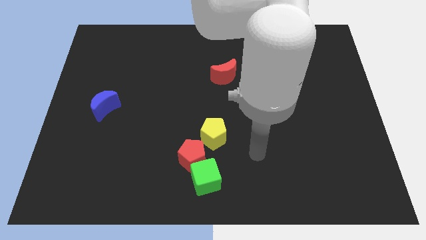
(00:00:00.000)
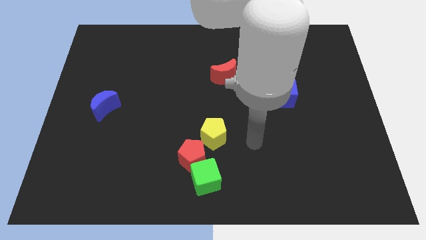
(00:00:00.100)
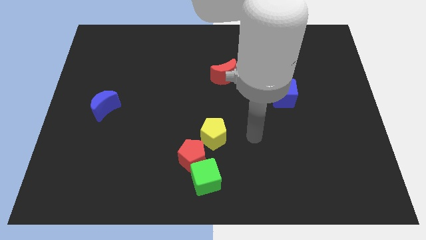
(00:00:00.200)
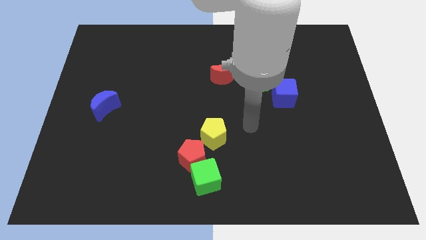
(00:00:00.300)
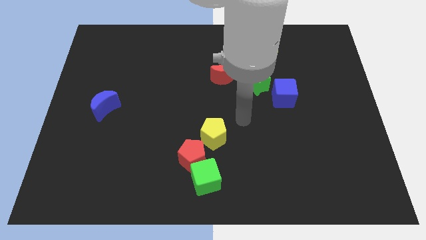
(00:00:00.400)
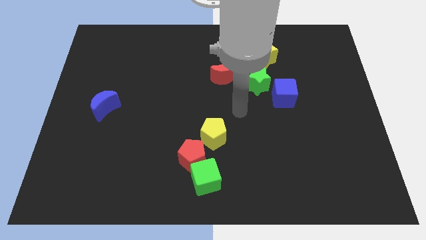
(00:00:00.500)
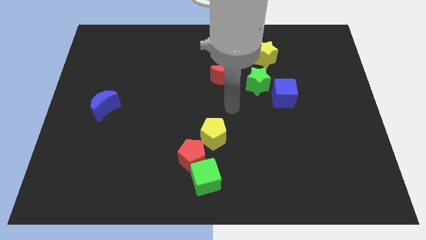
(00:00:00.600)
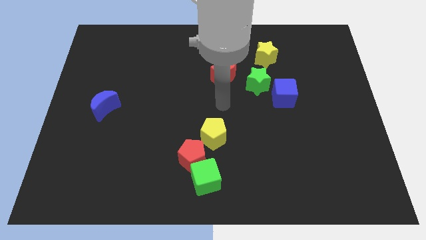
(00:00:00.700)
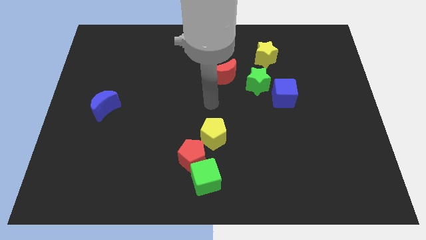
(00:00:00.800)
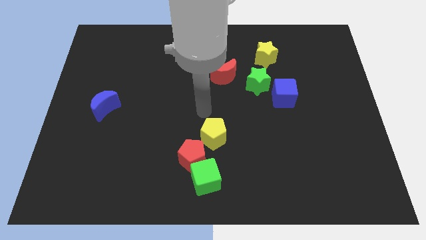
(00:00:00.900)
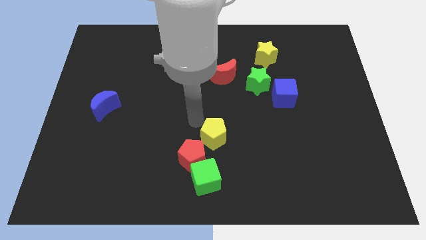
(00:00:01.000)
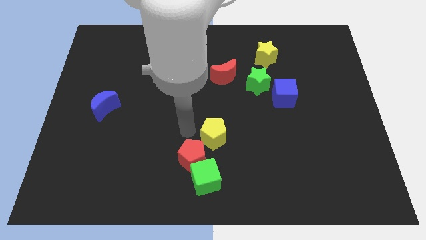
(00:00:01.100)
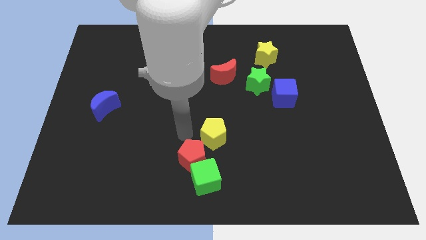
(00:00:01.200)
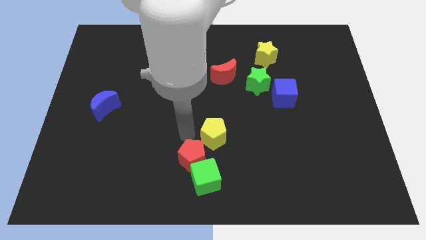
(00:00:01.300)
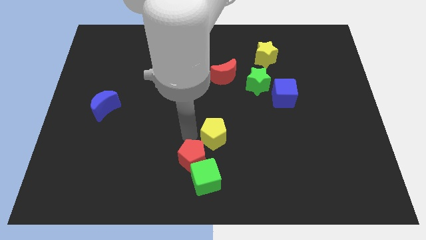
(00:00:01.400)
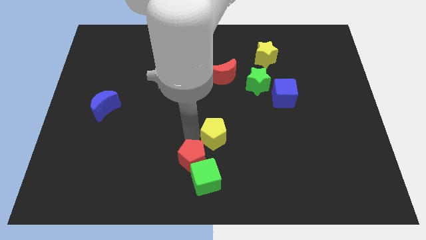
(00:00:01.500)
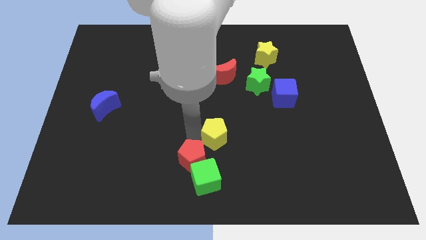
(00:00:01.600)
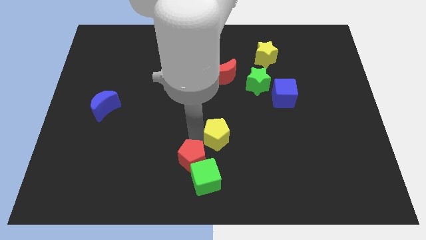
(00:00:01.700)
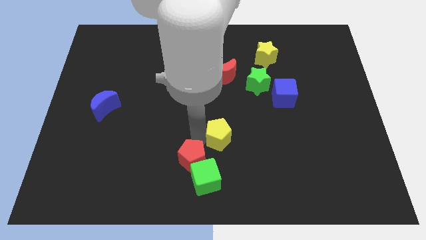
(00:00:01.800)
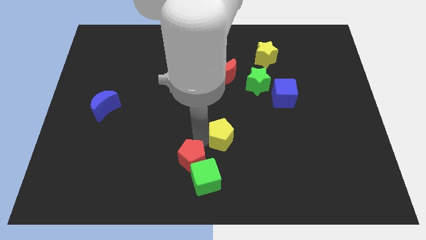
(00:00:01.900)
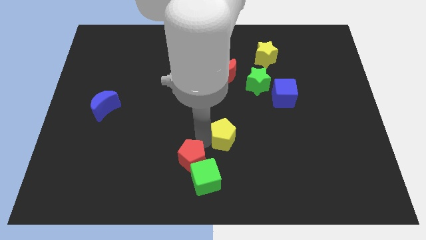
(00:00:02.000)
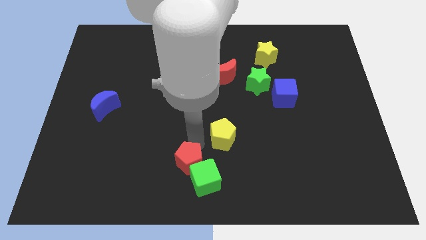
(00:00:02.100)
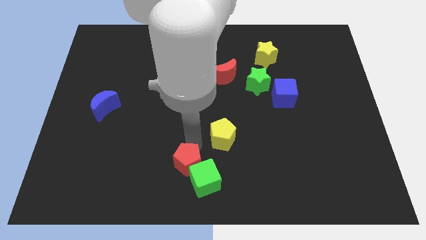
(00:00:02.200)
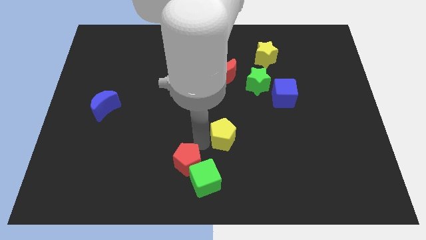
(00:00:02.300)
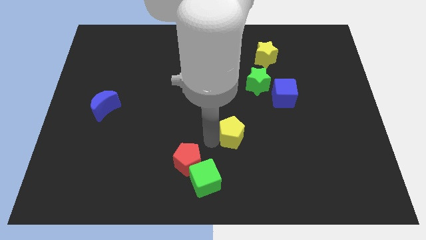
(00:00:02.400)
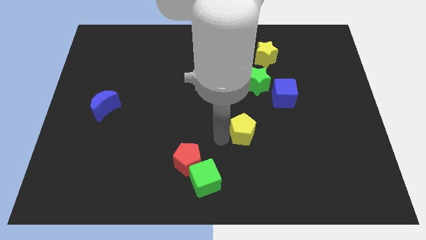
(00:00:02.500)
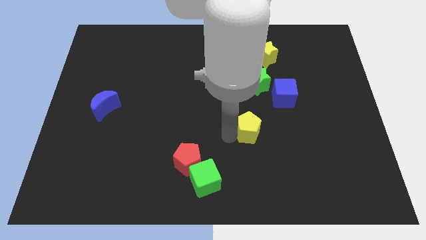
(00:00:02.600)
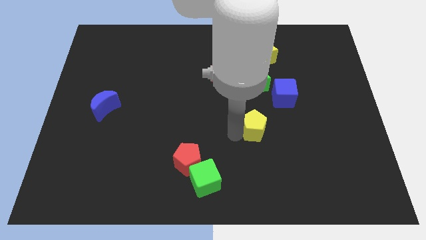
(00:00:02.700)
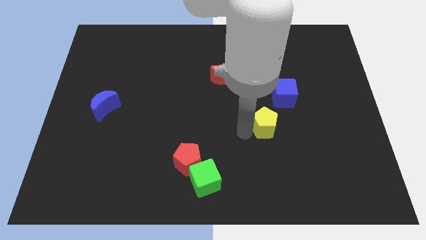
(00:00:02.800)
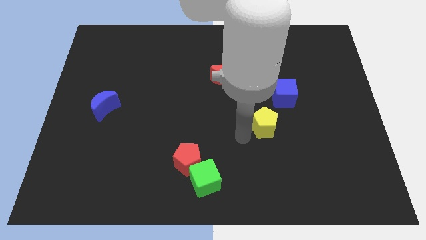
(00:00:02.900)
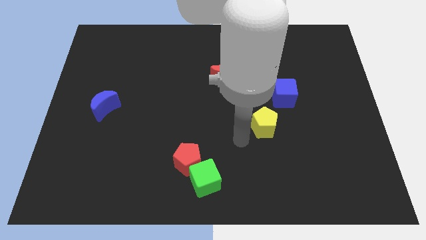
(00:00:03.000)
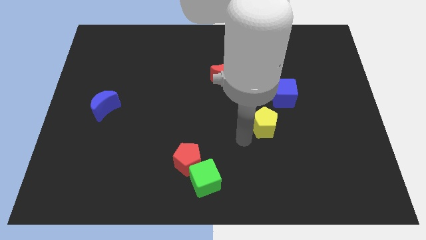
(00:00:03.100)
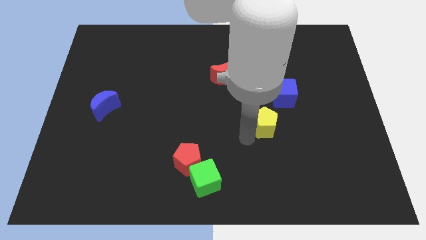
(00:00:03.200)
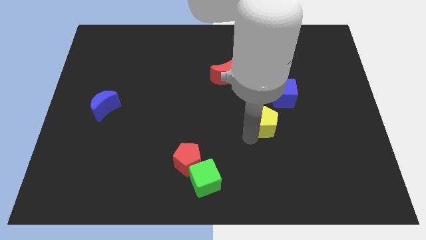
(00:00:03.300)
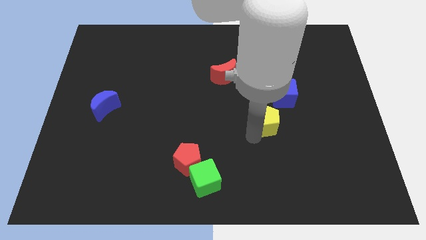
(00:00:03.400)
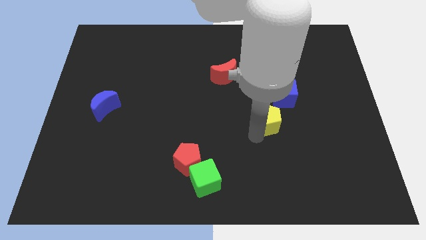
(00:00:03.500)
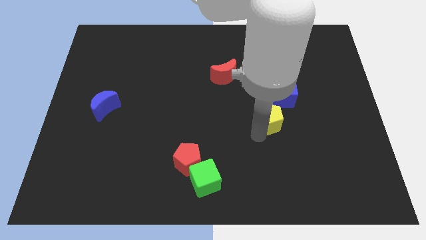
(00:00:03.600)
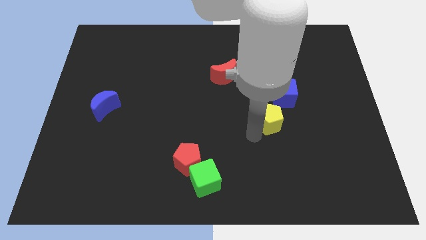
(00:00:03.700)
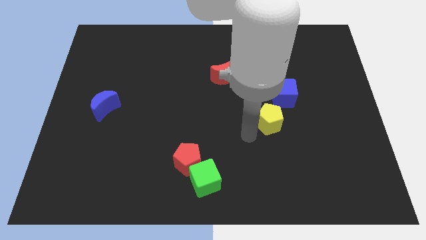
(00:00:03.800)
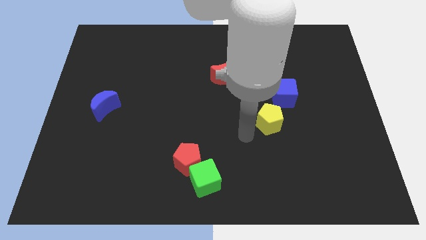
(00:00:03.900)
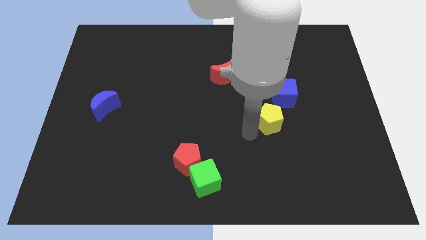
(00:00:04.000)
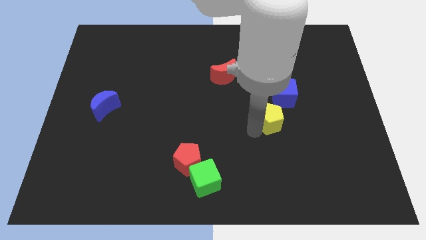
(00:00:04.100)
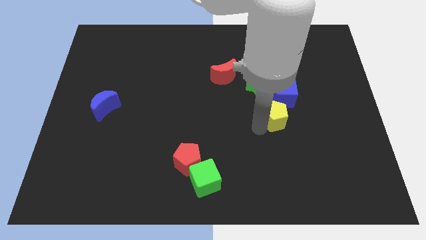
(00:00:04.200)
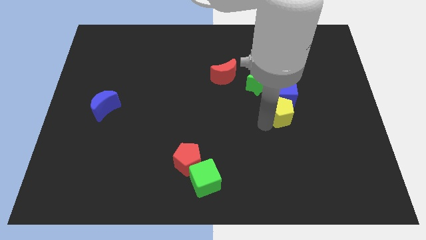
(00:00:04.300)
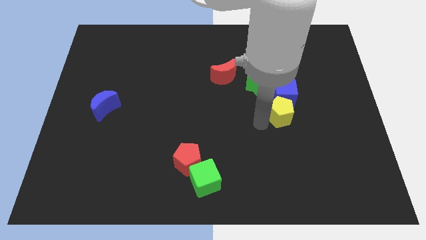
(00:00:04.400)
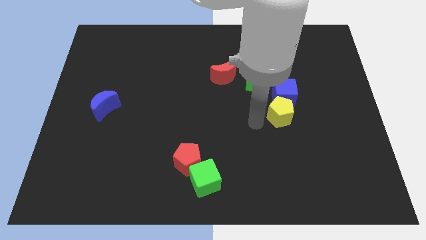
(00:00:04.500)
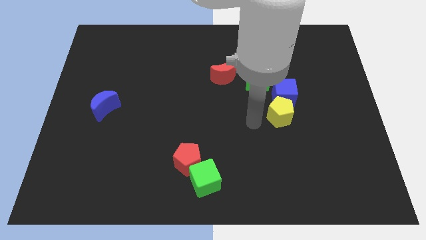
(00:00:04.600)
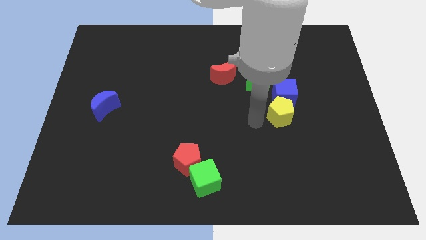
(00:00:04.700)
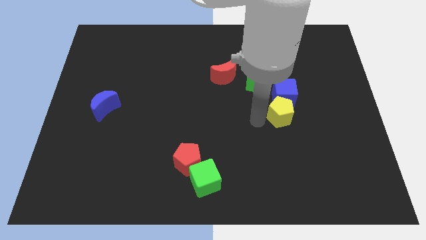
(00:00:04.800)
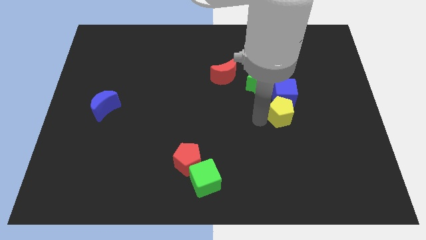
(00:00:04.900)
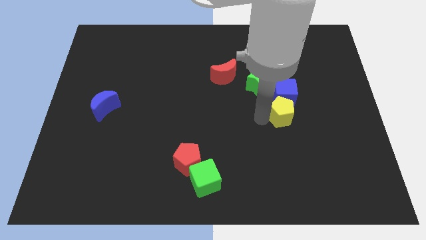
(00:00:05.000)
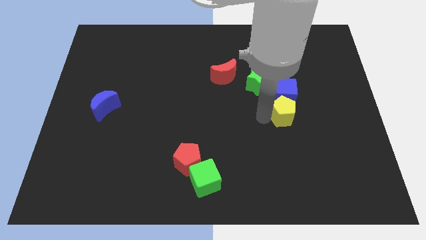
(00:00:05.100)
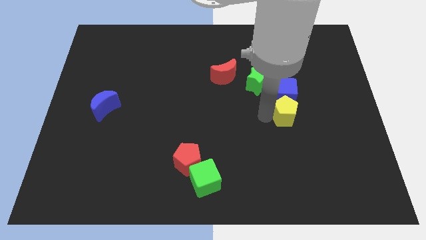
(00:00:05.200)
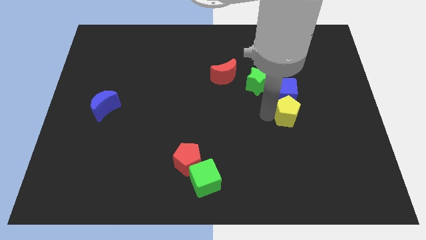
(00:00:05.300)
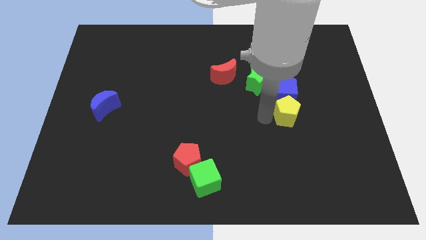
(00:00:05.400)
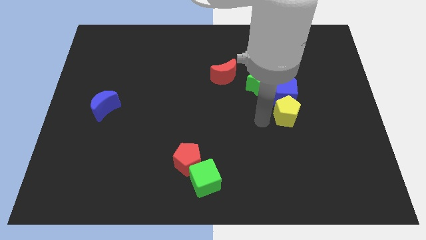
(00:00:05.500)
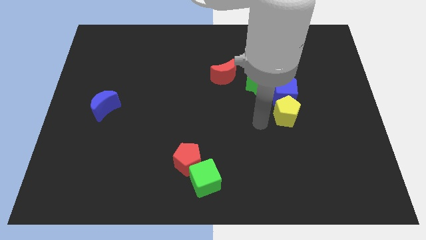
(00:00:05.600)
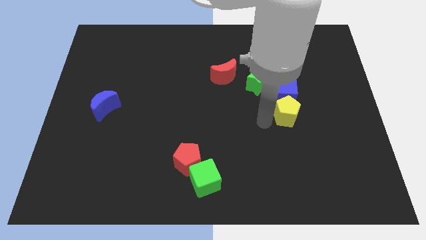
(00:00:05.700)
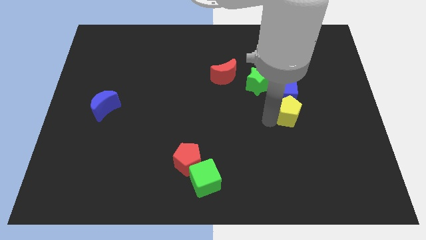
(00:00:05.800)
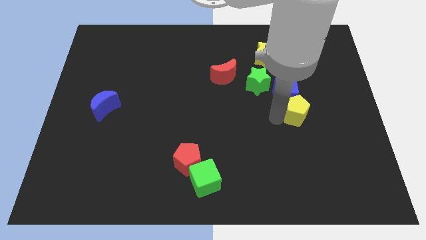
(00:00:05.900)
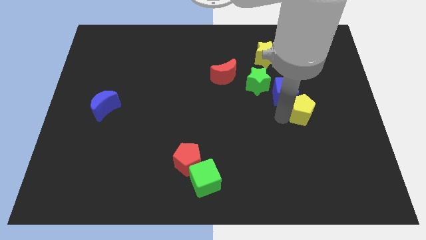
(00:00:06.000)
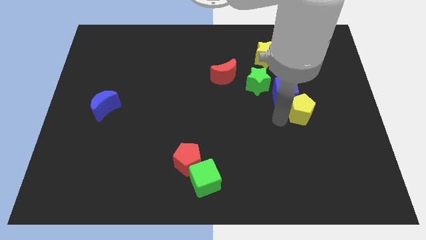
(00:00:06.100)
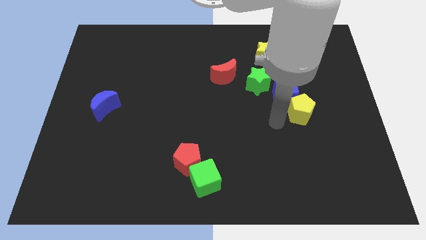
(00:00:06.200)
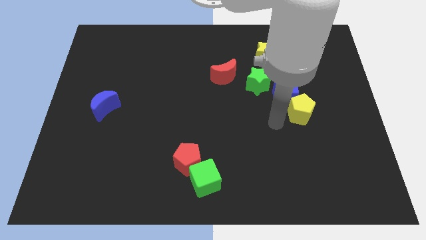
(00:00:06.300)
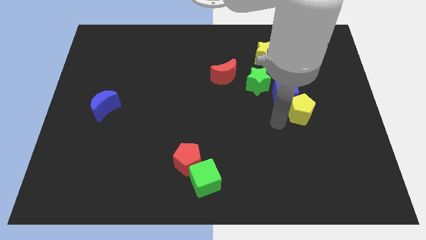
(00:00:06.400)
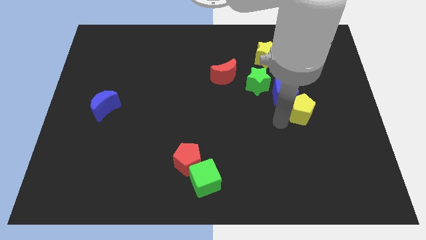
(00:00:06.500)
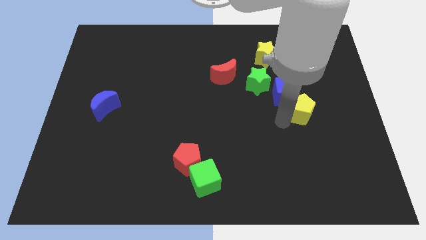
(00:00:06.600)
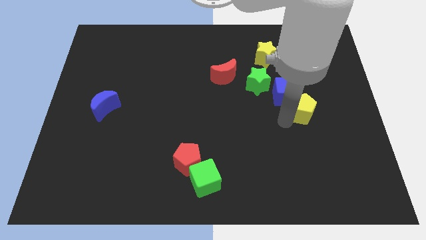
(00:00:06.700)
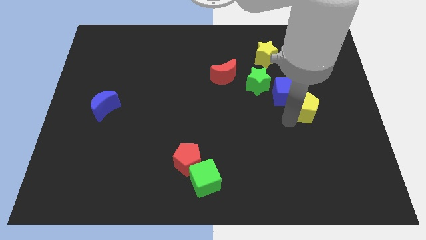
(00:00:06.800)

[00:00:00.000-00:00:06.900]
put the yellow pentagon to the right side of the blue cube
